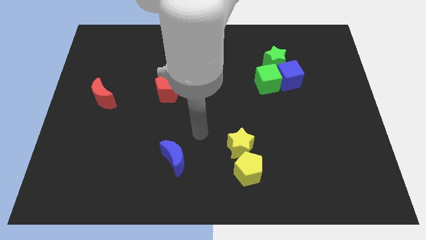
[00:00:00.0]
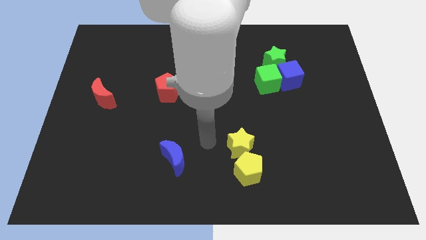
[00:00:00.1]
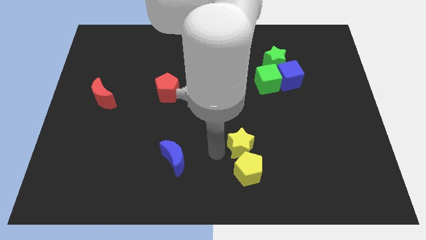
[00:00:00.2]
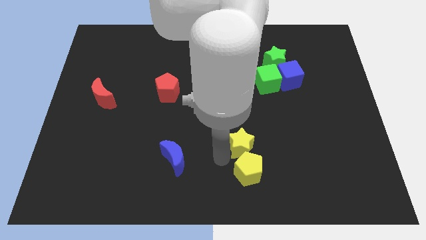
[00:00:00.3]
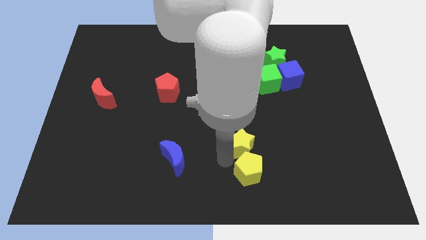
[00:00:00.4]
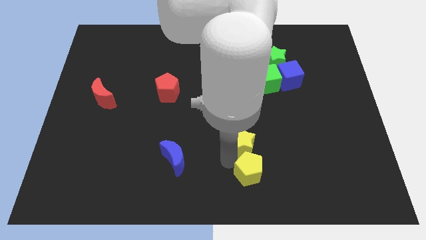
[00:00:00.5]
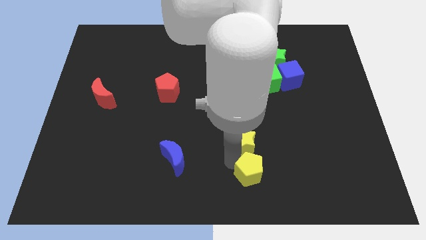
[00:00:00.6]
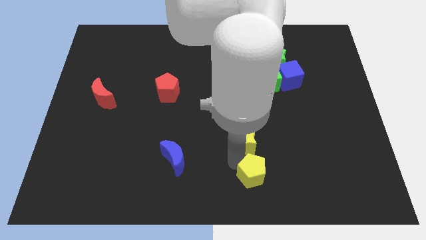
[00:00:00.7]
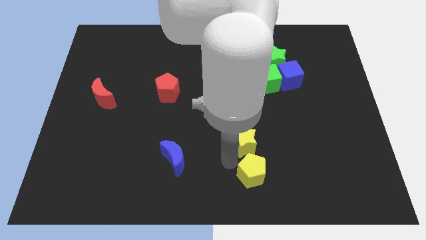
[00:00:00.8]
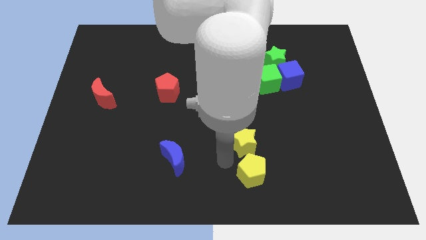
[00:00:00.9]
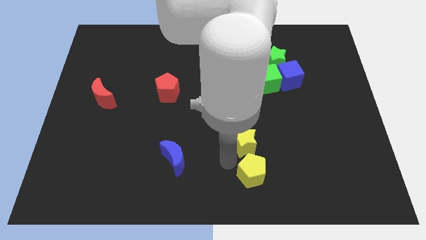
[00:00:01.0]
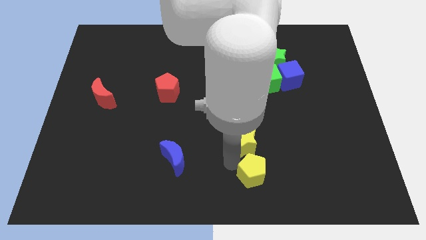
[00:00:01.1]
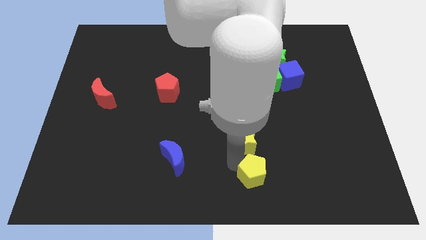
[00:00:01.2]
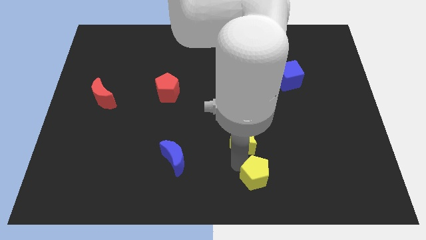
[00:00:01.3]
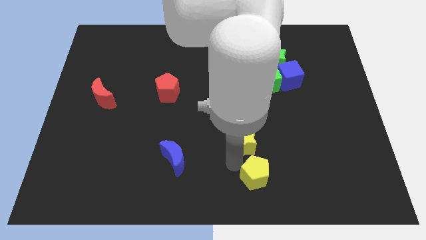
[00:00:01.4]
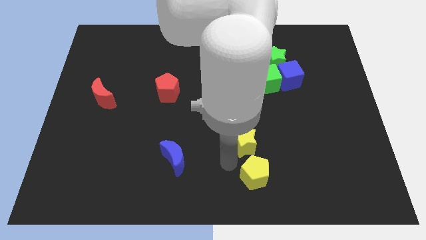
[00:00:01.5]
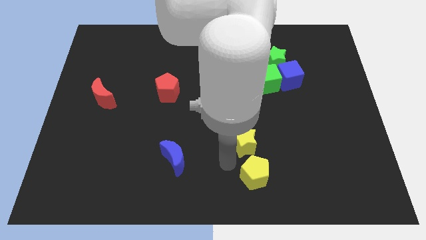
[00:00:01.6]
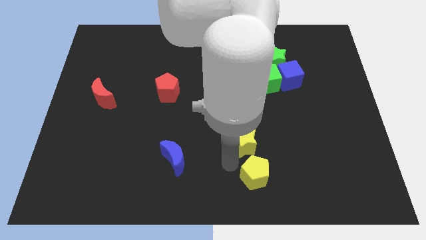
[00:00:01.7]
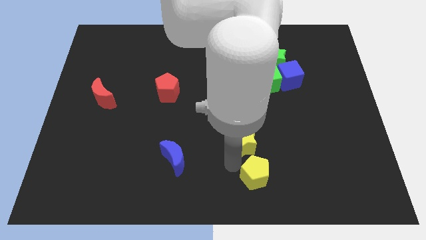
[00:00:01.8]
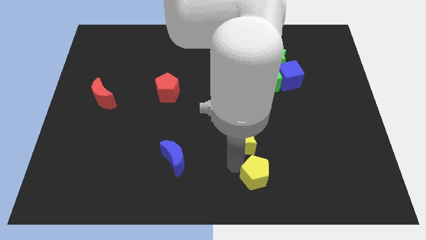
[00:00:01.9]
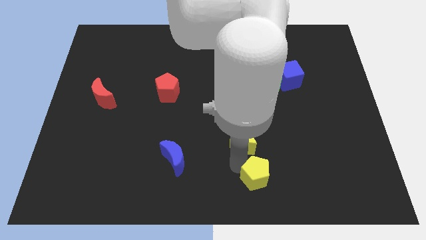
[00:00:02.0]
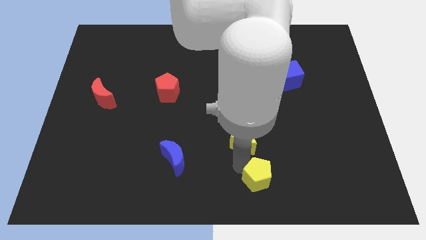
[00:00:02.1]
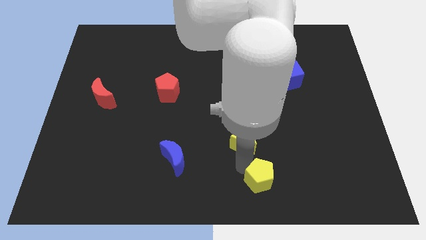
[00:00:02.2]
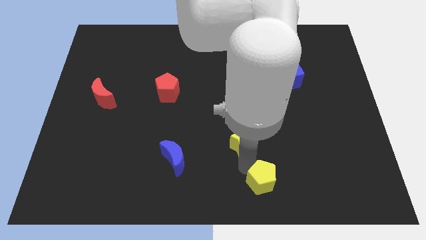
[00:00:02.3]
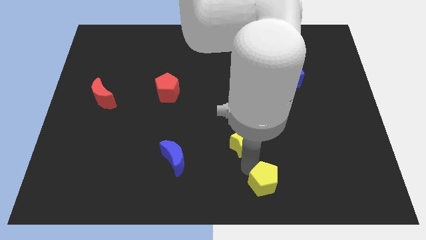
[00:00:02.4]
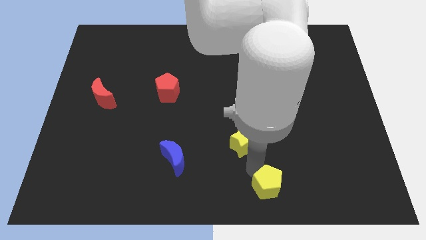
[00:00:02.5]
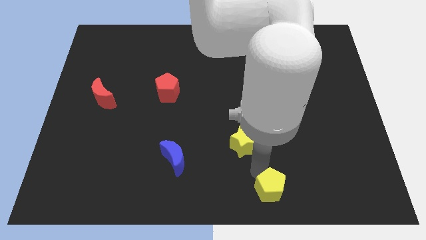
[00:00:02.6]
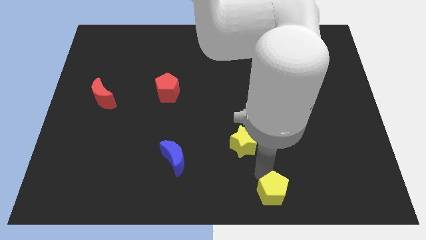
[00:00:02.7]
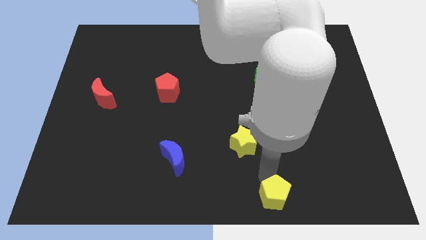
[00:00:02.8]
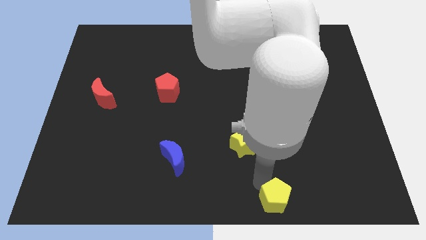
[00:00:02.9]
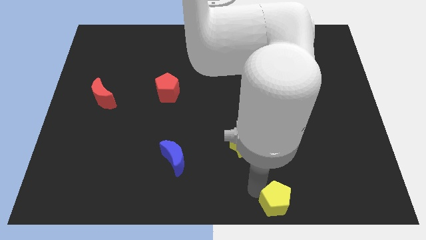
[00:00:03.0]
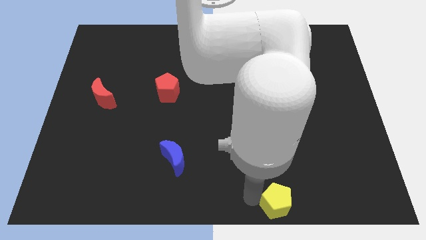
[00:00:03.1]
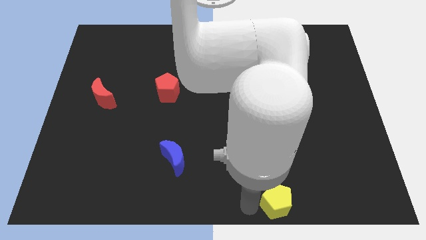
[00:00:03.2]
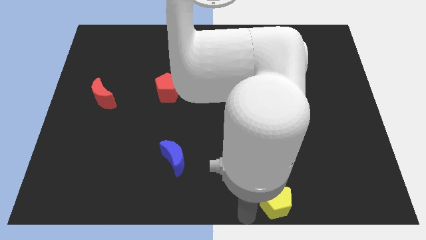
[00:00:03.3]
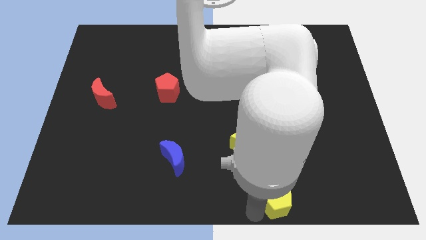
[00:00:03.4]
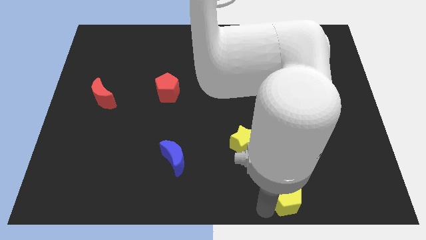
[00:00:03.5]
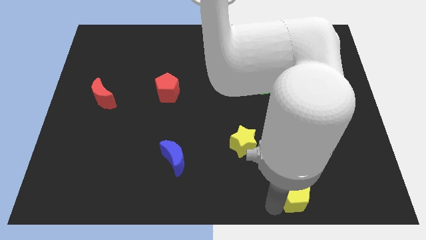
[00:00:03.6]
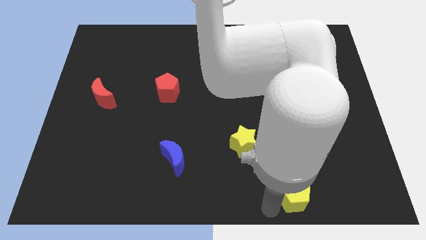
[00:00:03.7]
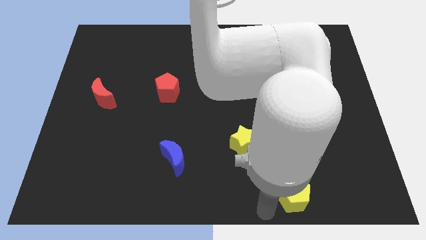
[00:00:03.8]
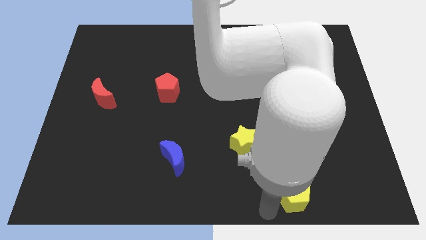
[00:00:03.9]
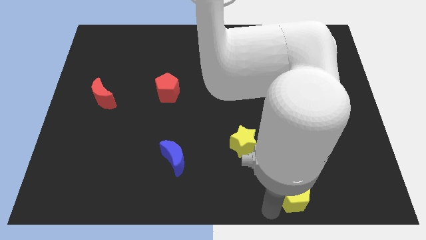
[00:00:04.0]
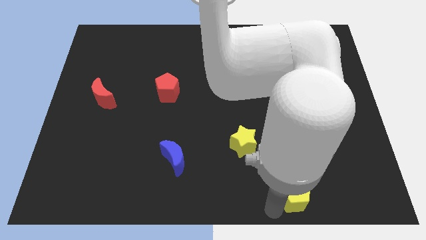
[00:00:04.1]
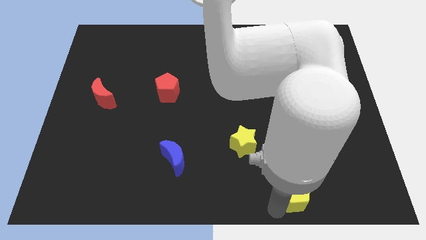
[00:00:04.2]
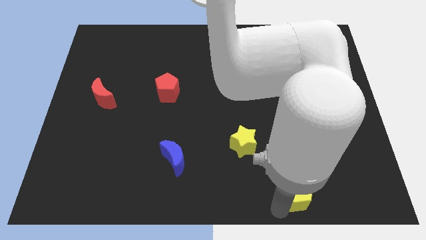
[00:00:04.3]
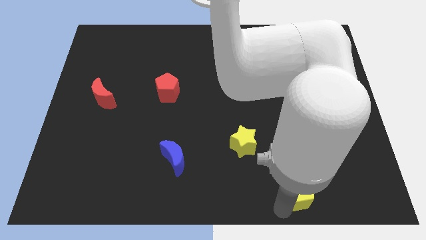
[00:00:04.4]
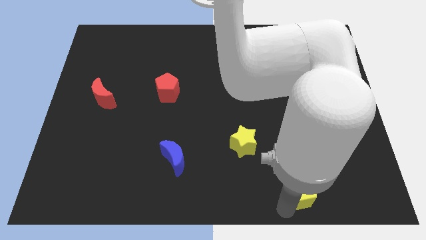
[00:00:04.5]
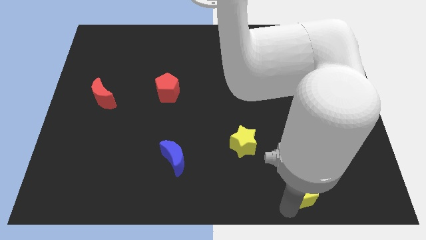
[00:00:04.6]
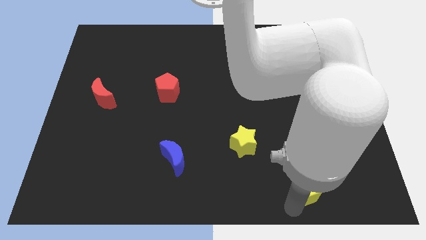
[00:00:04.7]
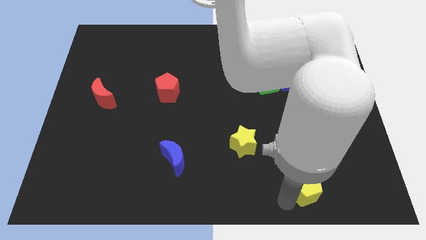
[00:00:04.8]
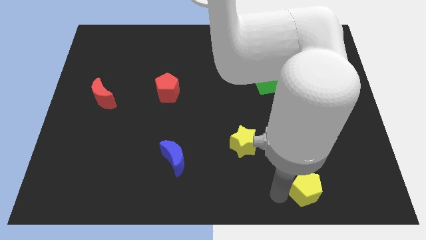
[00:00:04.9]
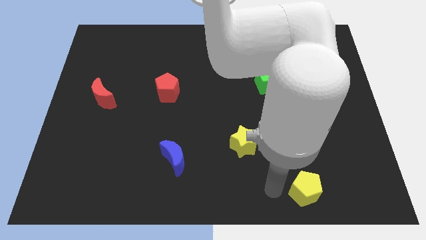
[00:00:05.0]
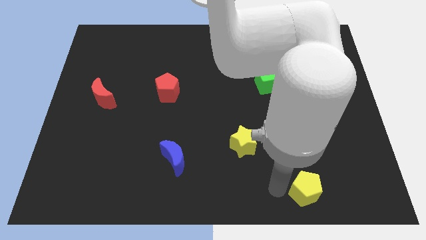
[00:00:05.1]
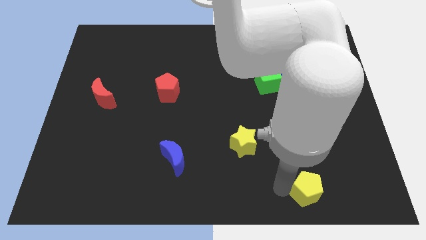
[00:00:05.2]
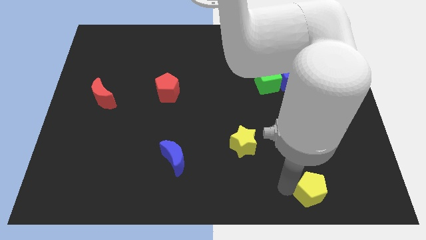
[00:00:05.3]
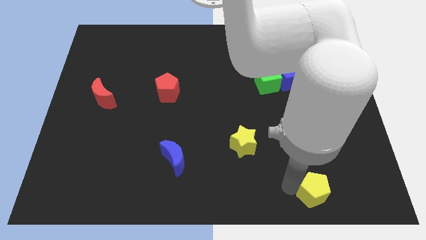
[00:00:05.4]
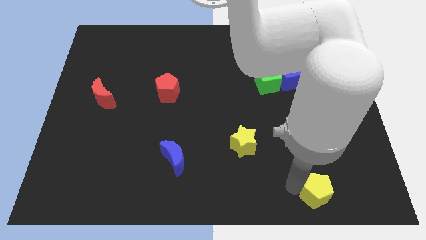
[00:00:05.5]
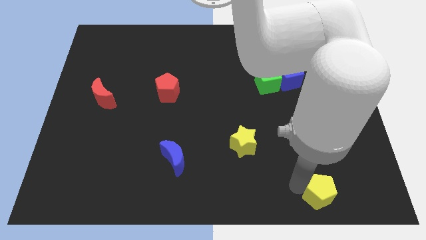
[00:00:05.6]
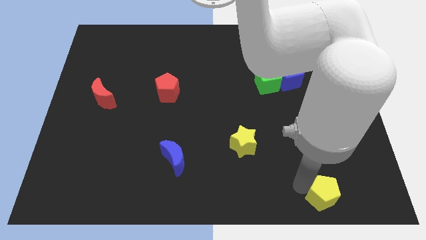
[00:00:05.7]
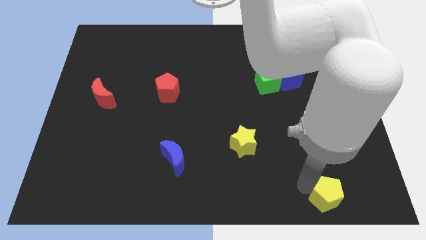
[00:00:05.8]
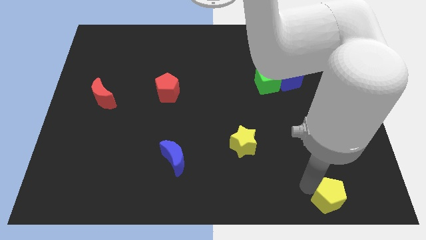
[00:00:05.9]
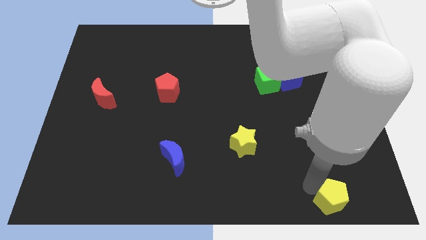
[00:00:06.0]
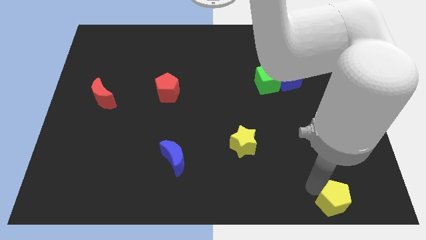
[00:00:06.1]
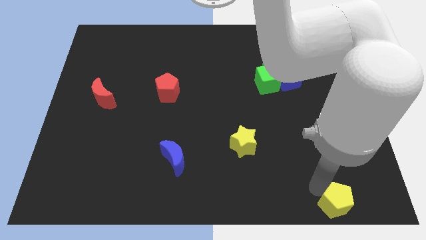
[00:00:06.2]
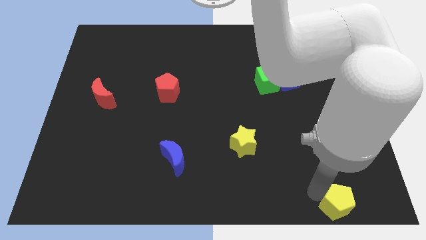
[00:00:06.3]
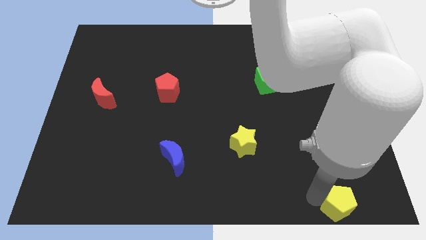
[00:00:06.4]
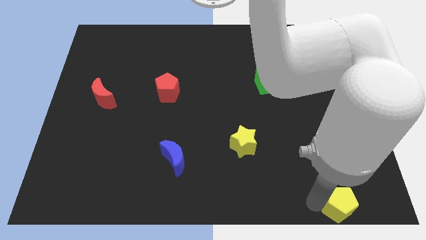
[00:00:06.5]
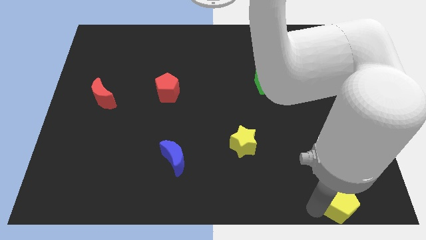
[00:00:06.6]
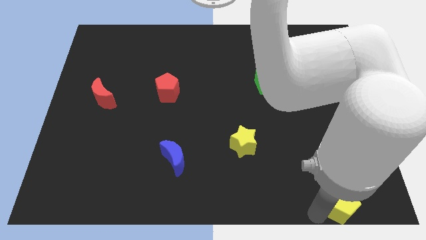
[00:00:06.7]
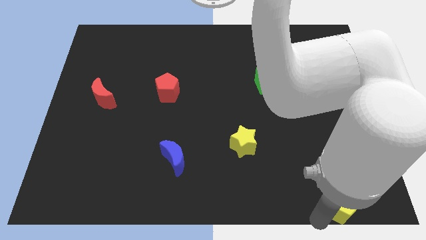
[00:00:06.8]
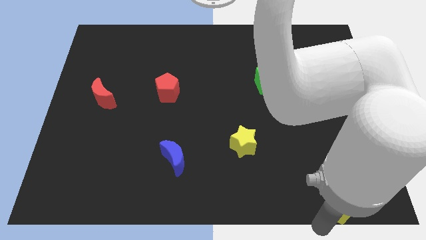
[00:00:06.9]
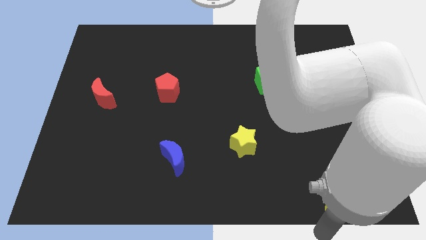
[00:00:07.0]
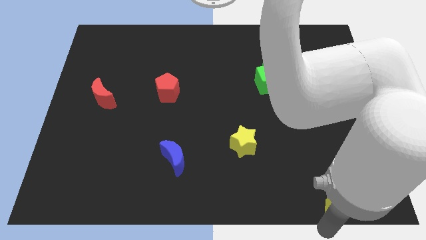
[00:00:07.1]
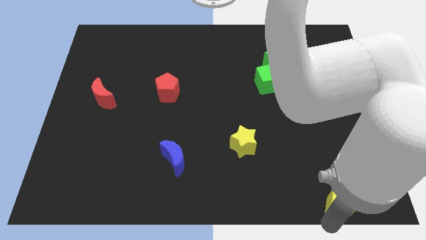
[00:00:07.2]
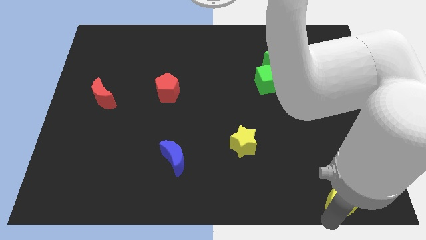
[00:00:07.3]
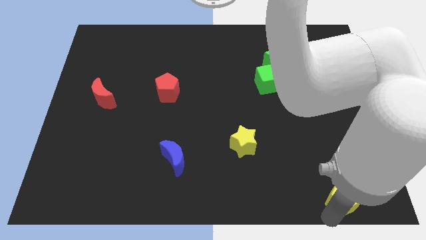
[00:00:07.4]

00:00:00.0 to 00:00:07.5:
put the yellow pentagon to the bottom right of the board
